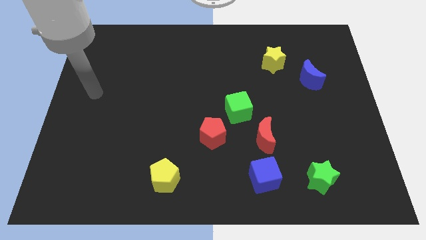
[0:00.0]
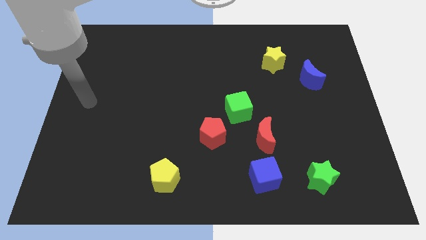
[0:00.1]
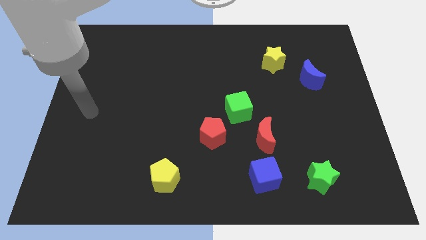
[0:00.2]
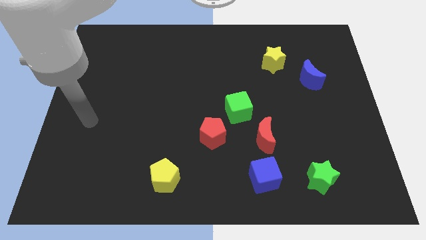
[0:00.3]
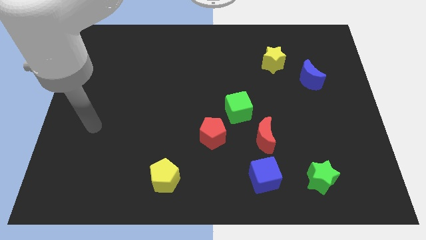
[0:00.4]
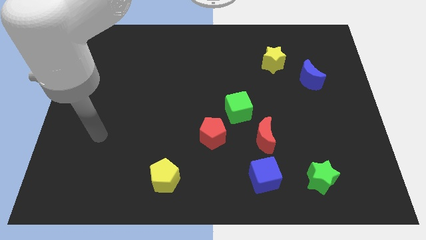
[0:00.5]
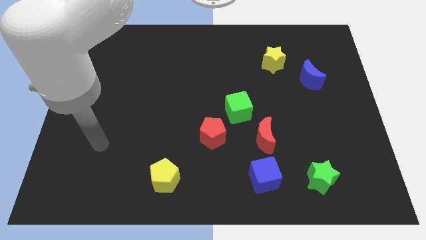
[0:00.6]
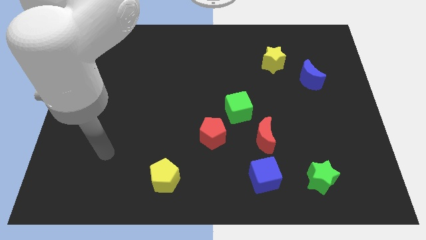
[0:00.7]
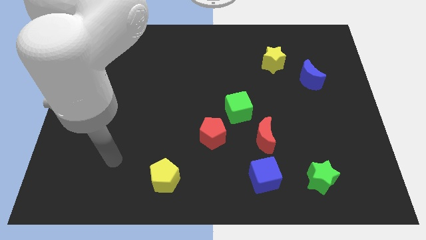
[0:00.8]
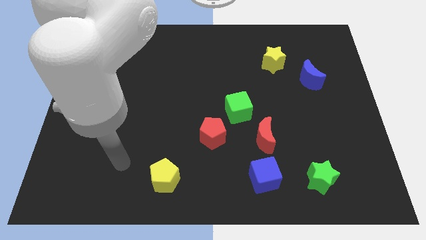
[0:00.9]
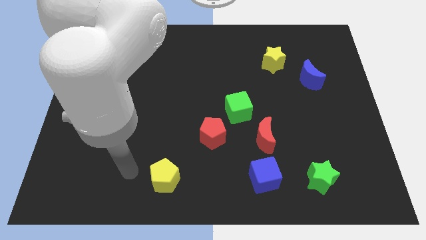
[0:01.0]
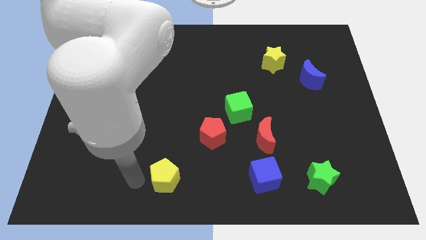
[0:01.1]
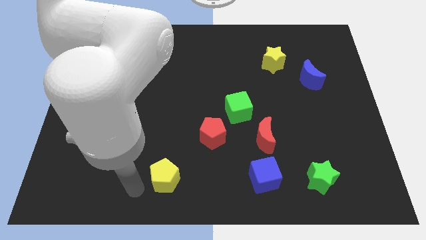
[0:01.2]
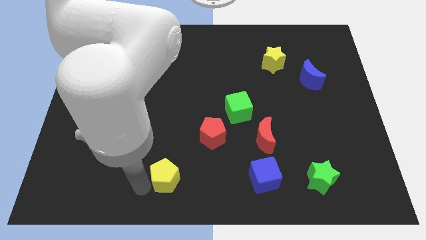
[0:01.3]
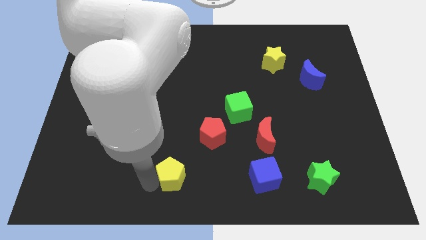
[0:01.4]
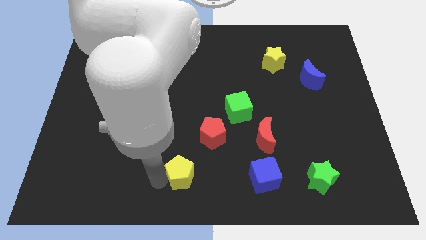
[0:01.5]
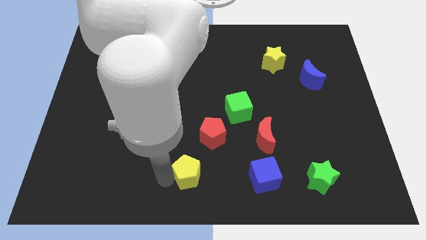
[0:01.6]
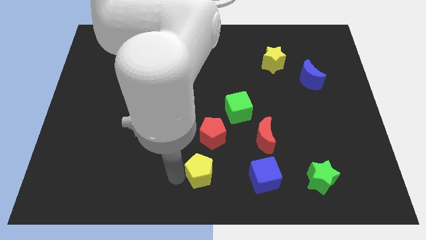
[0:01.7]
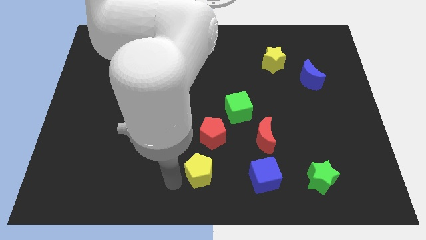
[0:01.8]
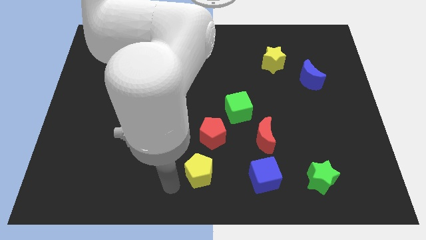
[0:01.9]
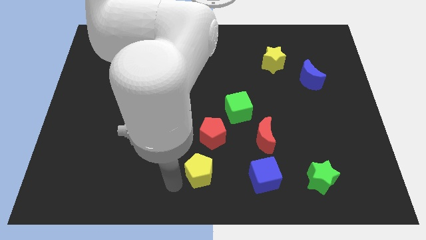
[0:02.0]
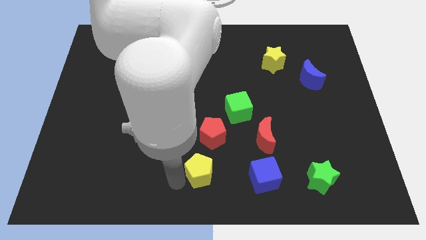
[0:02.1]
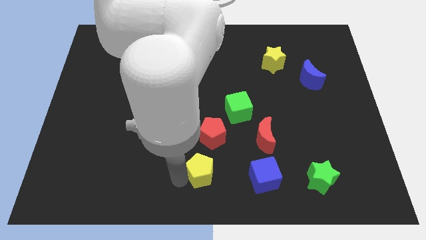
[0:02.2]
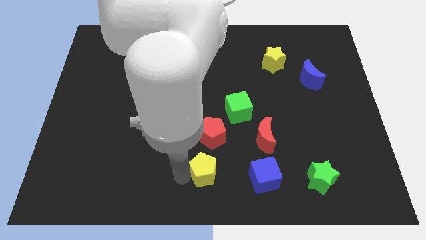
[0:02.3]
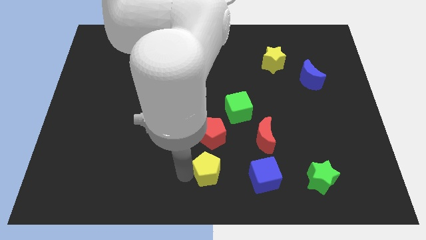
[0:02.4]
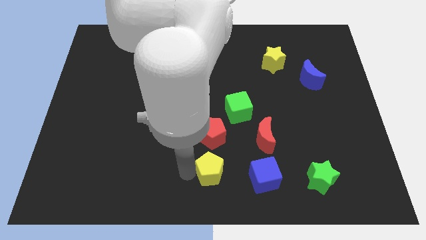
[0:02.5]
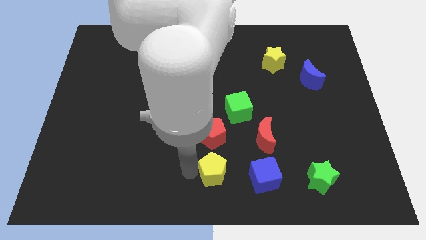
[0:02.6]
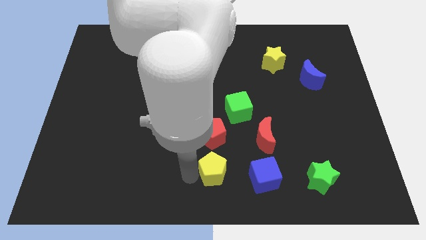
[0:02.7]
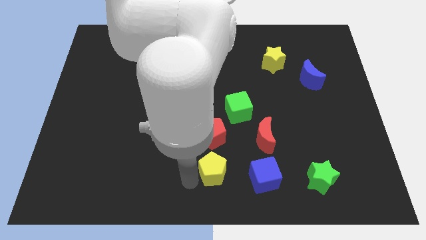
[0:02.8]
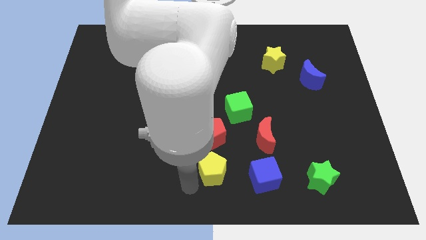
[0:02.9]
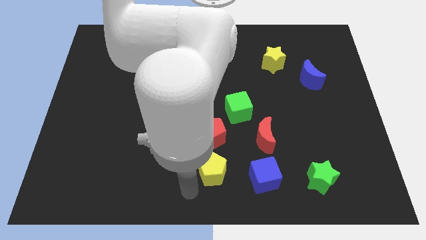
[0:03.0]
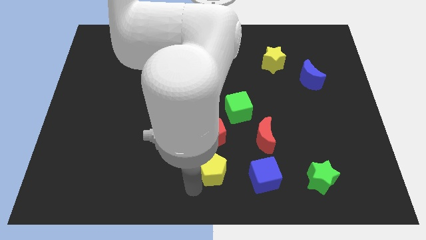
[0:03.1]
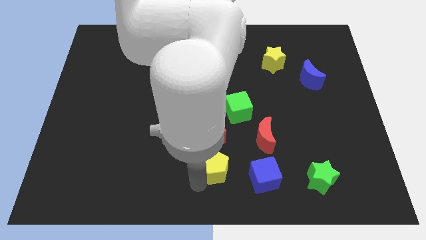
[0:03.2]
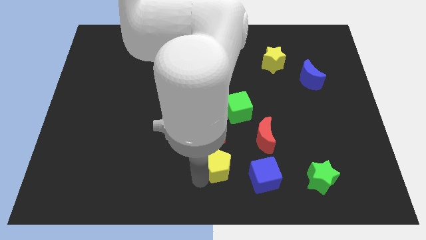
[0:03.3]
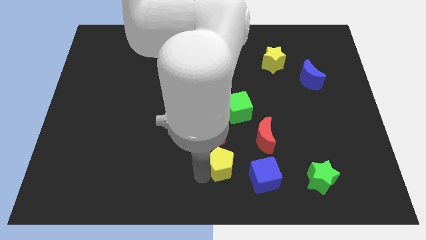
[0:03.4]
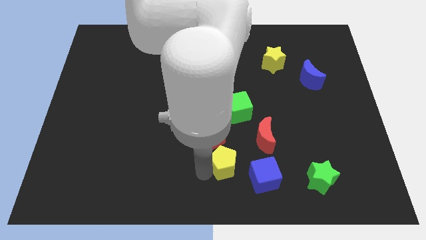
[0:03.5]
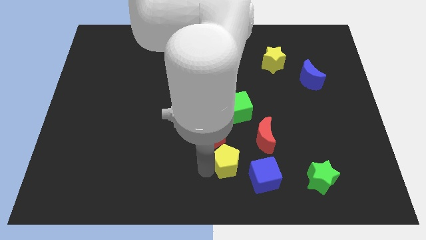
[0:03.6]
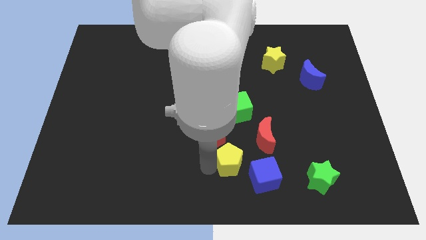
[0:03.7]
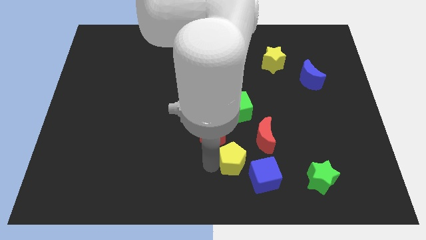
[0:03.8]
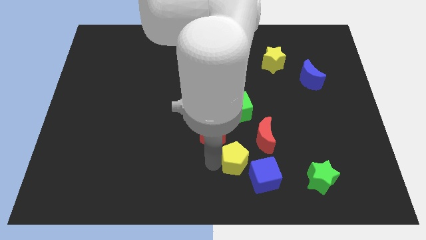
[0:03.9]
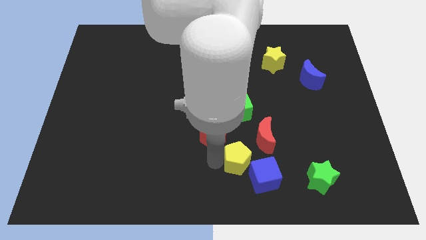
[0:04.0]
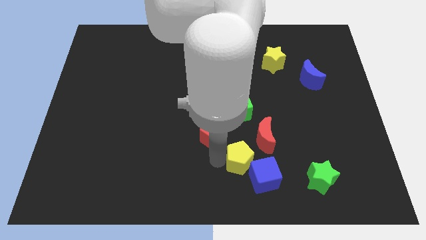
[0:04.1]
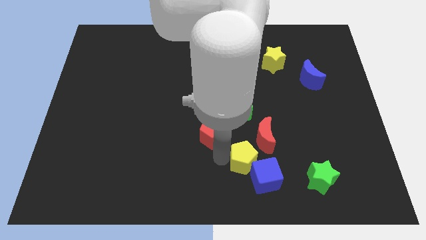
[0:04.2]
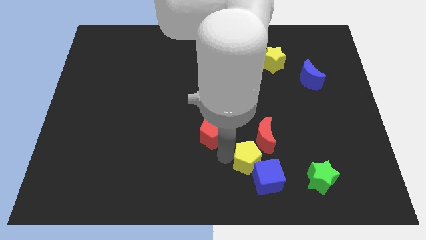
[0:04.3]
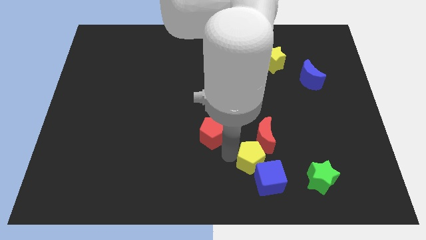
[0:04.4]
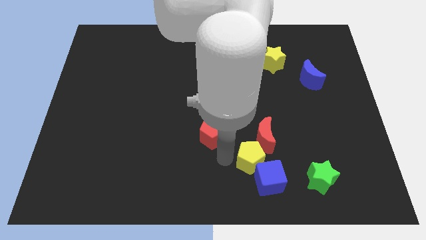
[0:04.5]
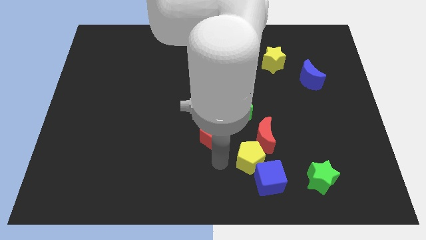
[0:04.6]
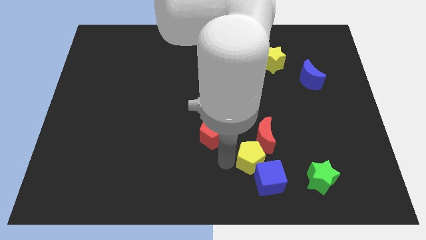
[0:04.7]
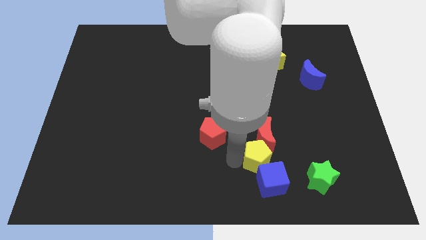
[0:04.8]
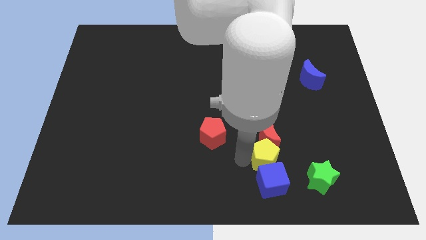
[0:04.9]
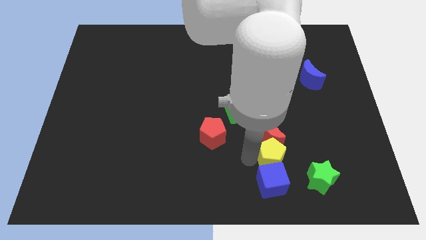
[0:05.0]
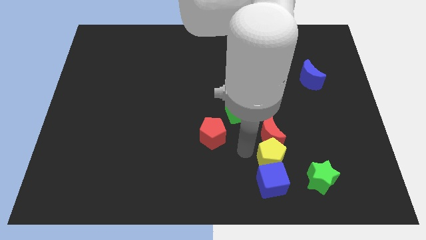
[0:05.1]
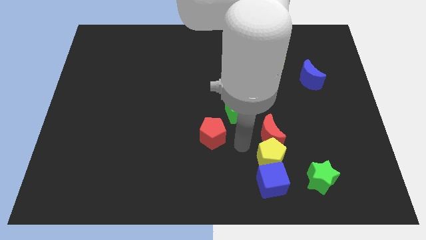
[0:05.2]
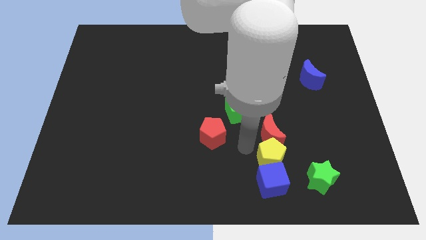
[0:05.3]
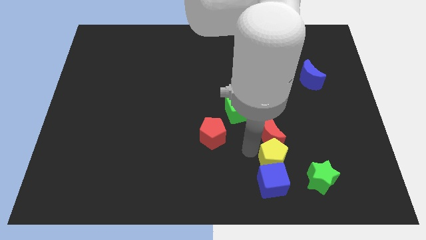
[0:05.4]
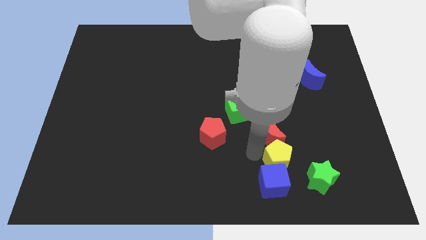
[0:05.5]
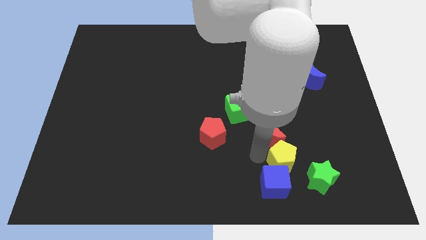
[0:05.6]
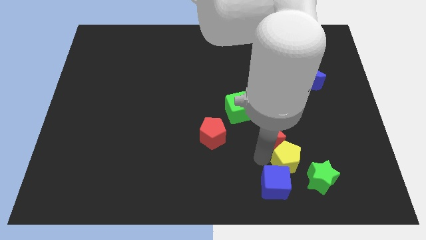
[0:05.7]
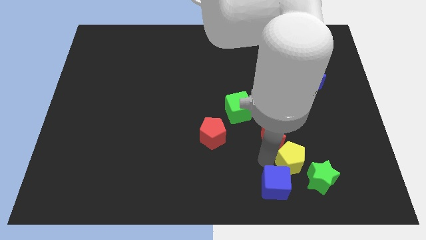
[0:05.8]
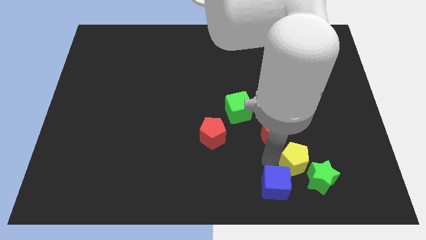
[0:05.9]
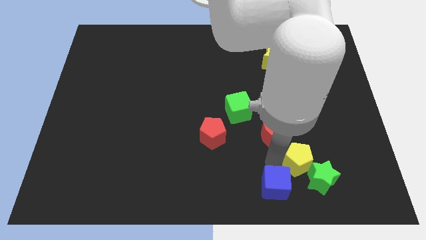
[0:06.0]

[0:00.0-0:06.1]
slide the yellow pentagon close to the green star
